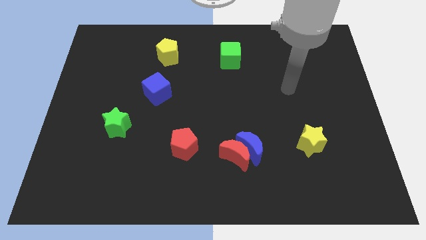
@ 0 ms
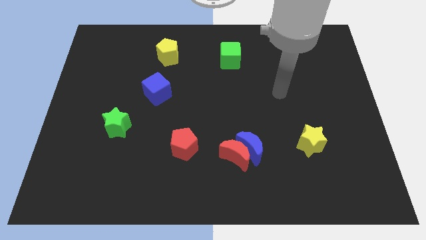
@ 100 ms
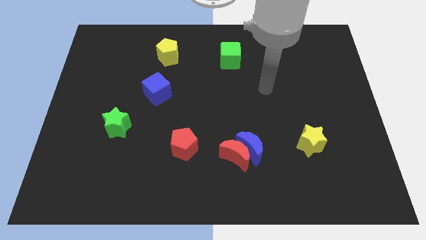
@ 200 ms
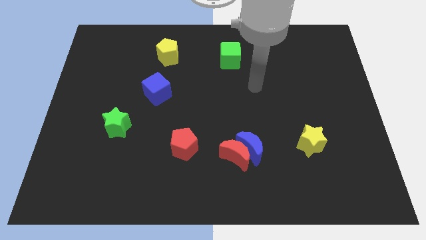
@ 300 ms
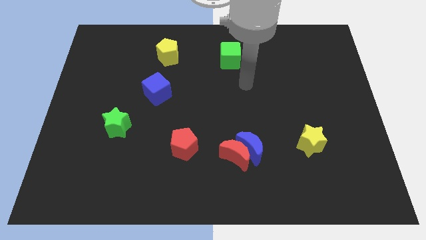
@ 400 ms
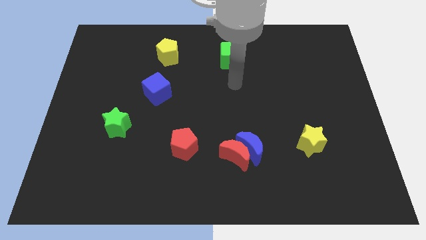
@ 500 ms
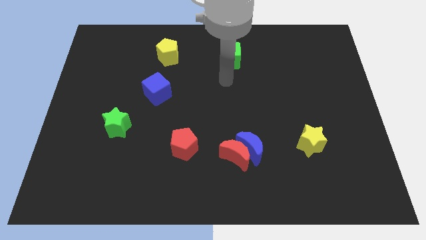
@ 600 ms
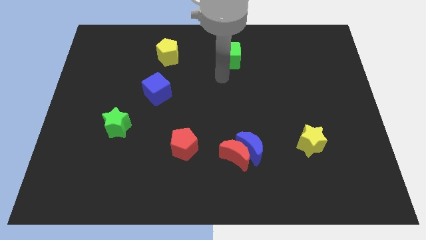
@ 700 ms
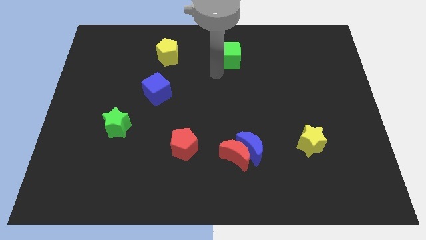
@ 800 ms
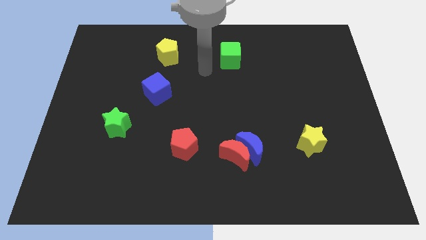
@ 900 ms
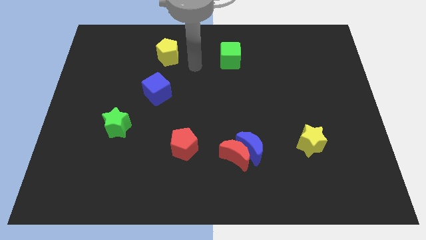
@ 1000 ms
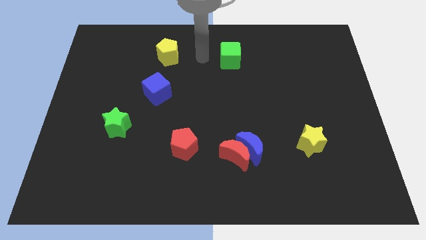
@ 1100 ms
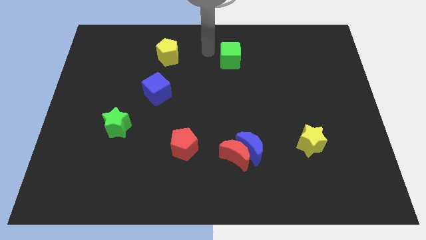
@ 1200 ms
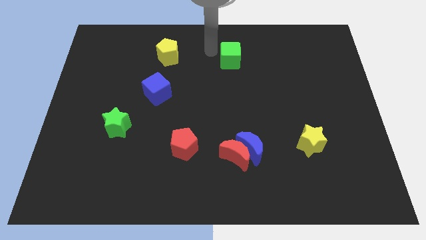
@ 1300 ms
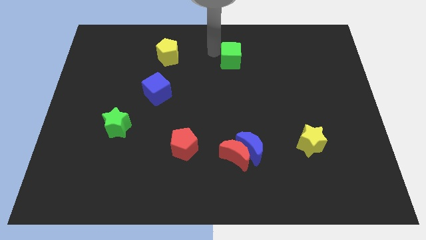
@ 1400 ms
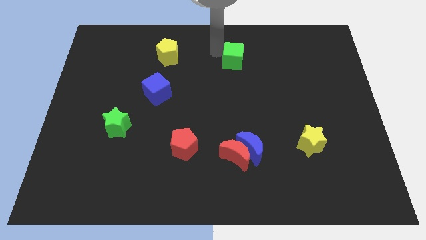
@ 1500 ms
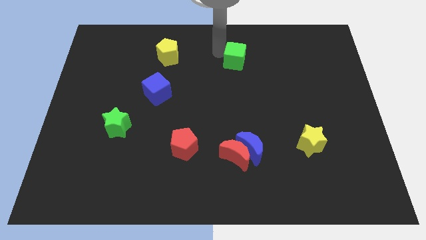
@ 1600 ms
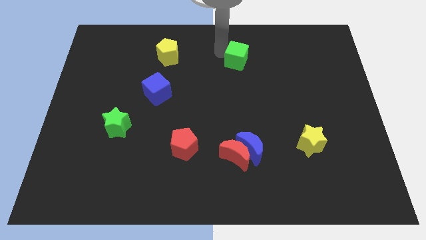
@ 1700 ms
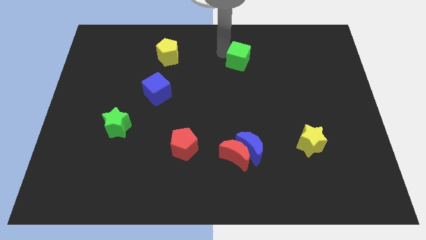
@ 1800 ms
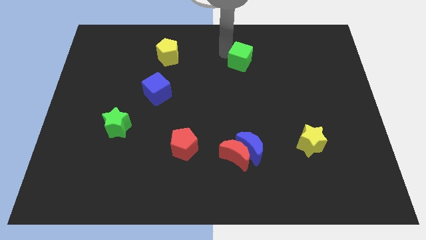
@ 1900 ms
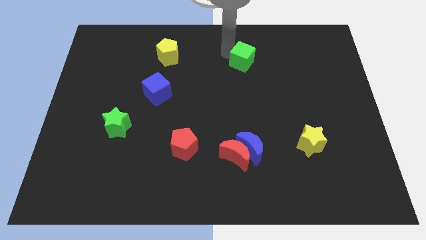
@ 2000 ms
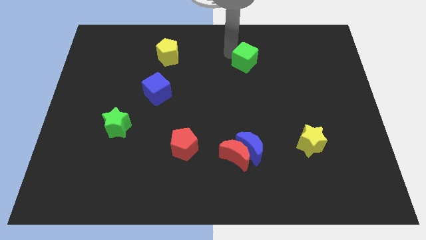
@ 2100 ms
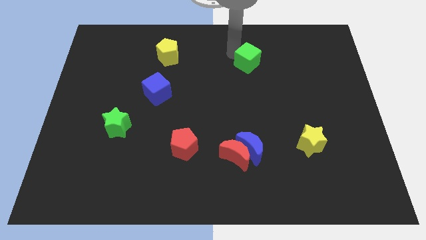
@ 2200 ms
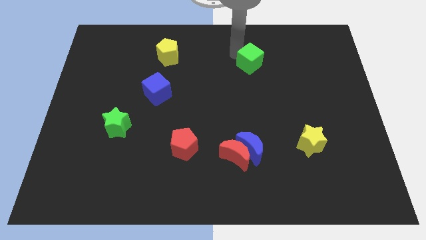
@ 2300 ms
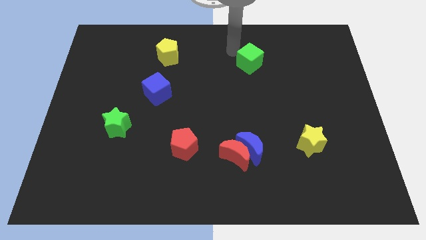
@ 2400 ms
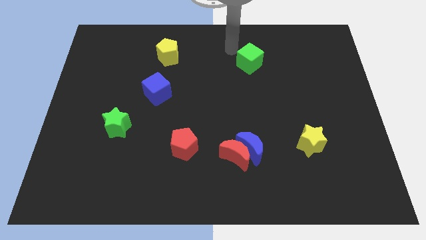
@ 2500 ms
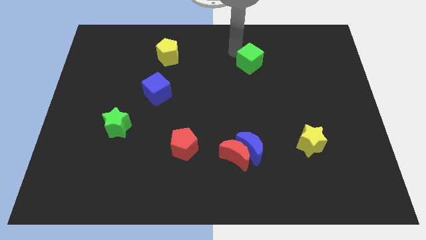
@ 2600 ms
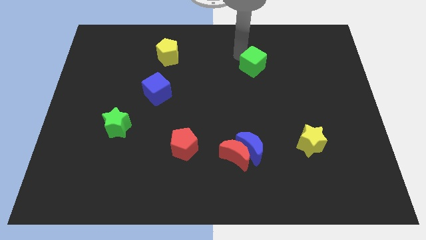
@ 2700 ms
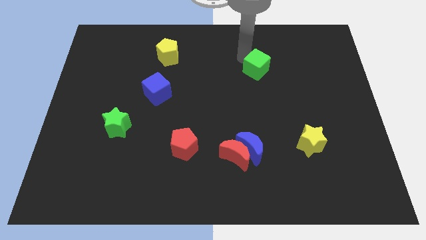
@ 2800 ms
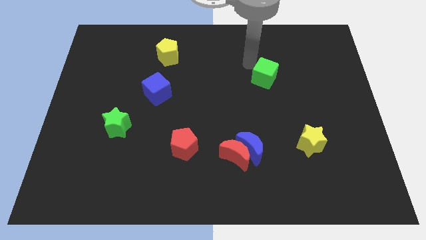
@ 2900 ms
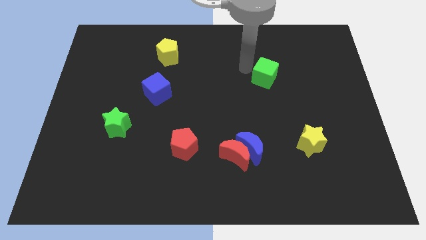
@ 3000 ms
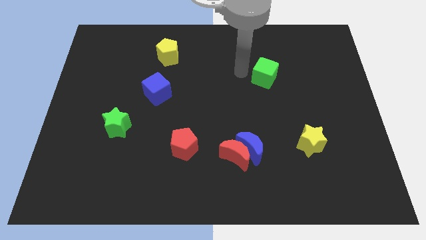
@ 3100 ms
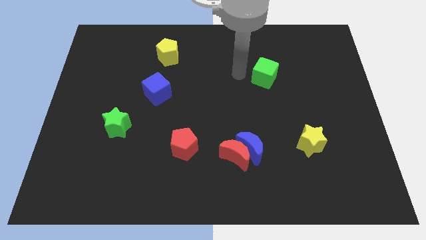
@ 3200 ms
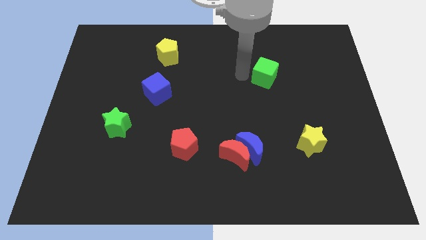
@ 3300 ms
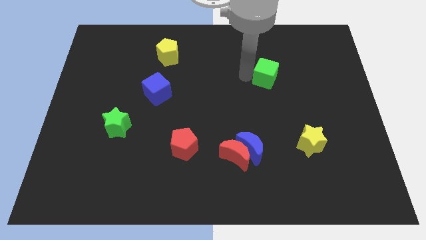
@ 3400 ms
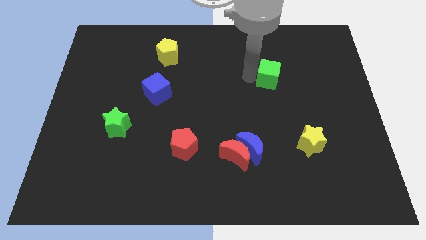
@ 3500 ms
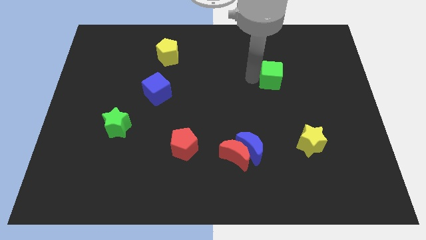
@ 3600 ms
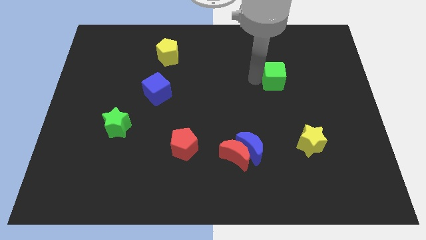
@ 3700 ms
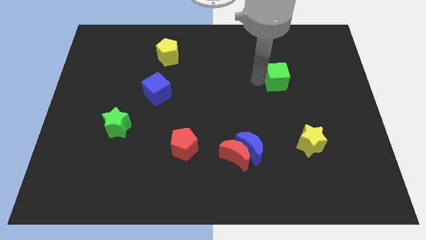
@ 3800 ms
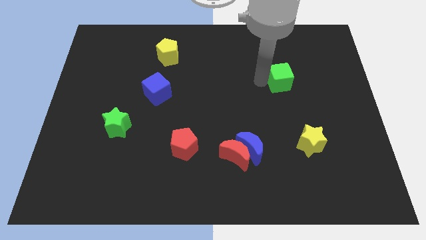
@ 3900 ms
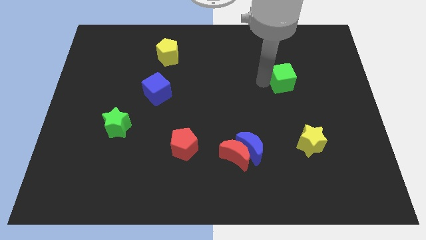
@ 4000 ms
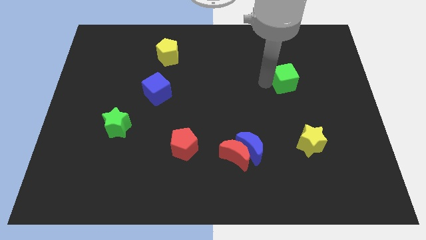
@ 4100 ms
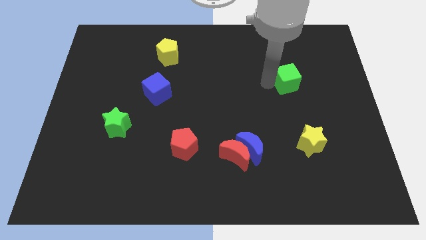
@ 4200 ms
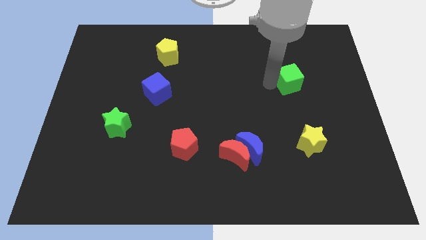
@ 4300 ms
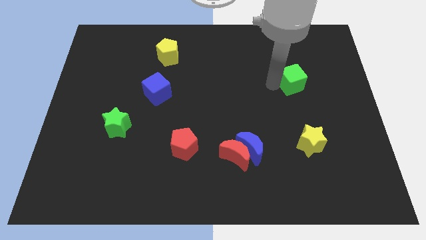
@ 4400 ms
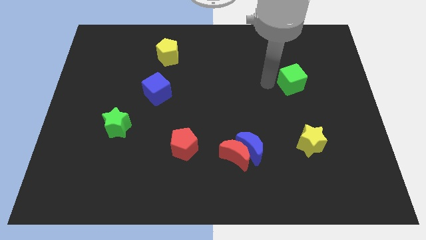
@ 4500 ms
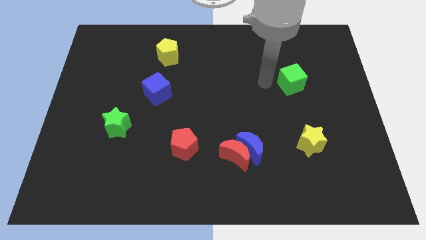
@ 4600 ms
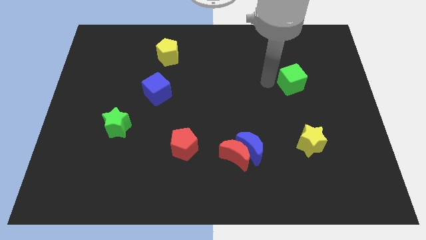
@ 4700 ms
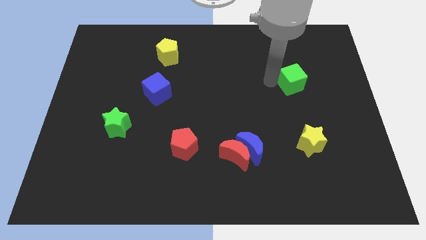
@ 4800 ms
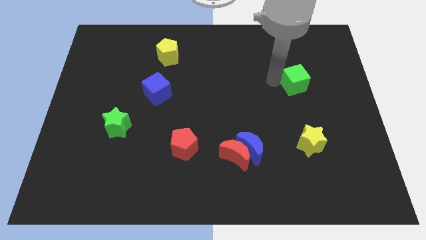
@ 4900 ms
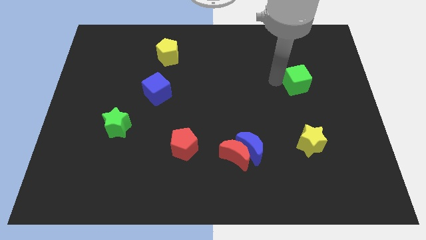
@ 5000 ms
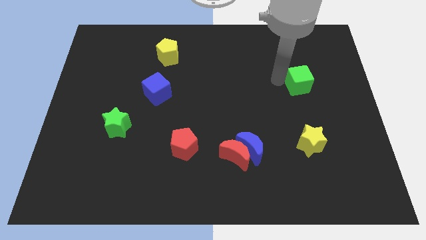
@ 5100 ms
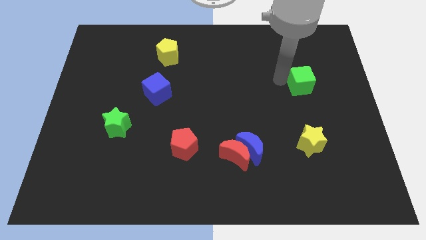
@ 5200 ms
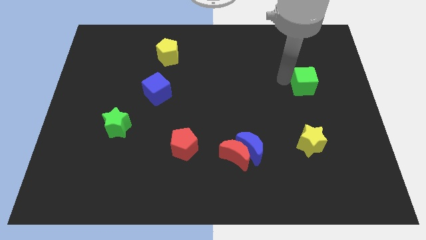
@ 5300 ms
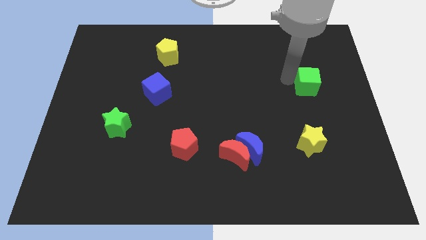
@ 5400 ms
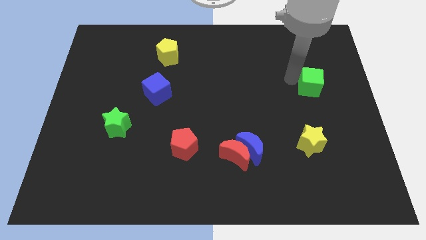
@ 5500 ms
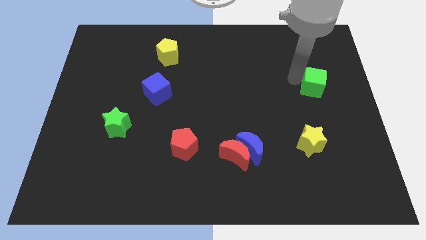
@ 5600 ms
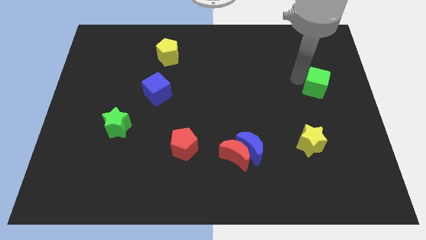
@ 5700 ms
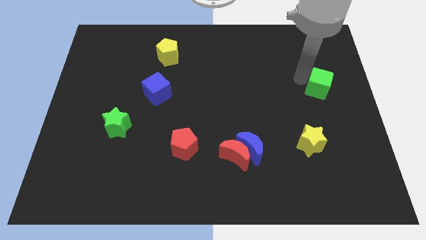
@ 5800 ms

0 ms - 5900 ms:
put the green cube to the center right
